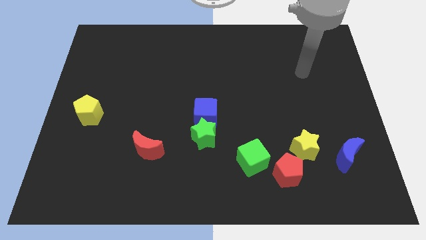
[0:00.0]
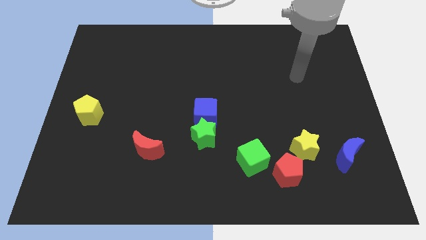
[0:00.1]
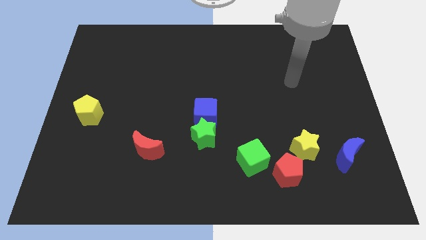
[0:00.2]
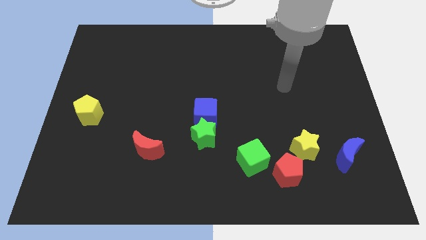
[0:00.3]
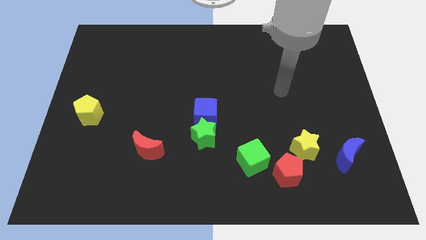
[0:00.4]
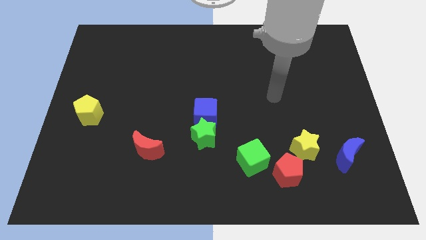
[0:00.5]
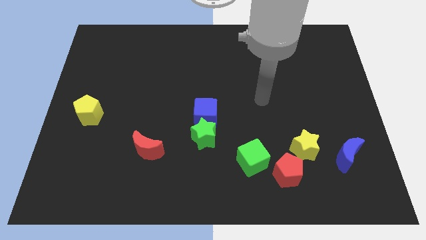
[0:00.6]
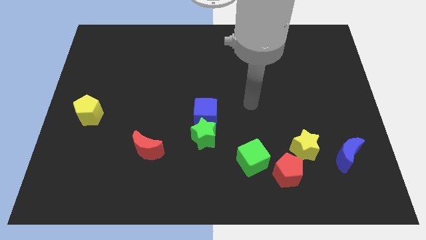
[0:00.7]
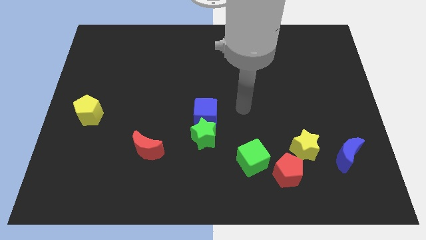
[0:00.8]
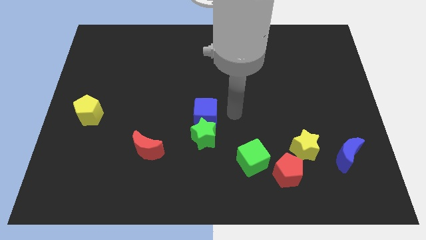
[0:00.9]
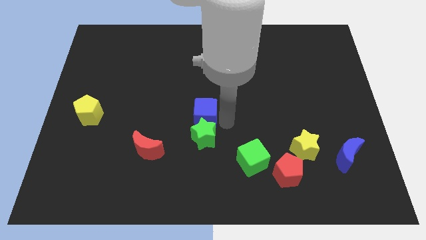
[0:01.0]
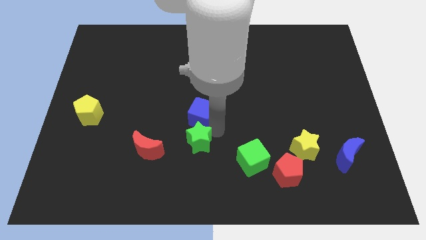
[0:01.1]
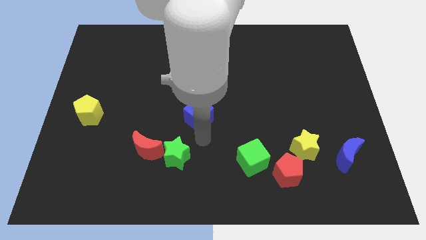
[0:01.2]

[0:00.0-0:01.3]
pull the blue cube apart from the green star

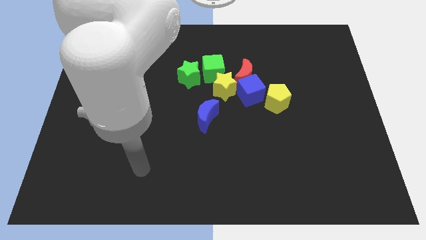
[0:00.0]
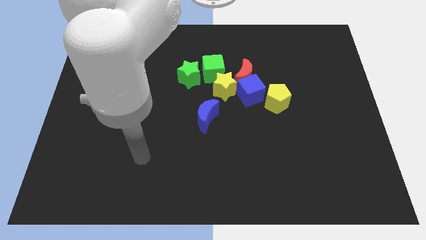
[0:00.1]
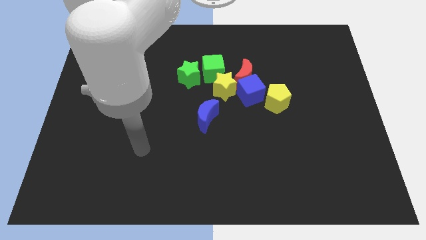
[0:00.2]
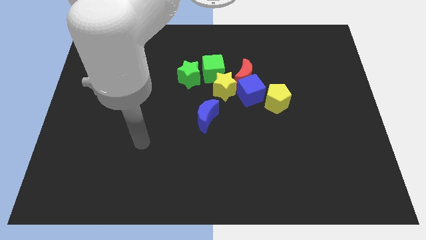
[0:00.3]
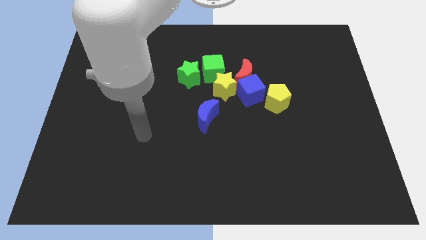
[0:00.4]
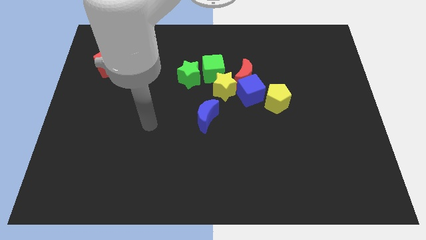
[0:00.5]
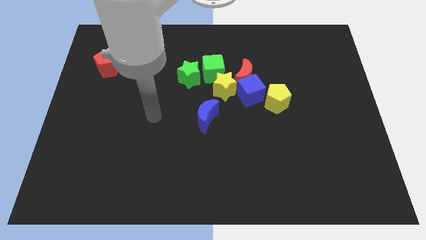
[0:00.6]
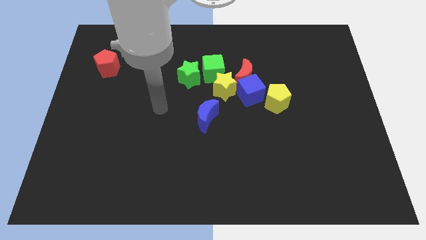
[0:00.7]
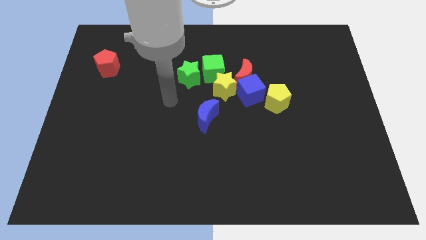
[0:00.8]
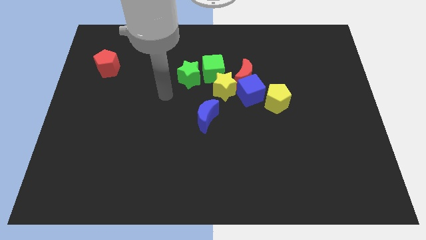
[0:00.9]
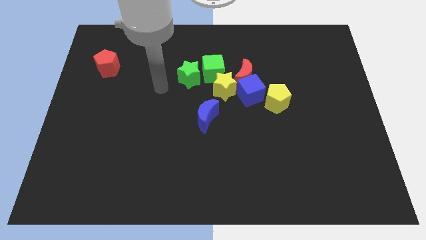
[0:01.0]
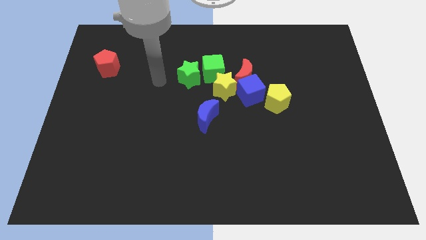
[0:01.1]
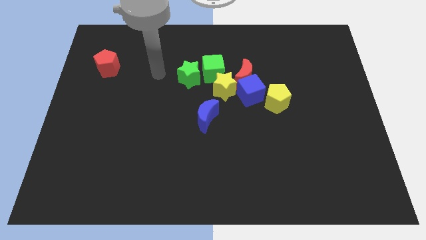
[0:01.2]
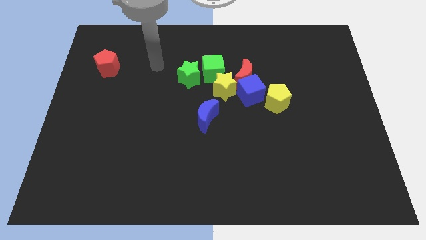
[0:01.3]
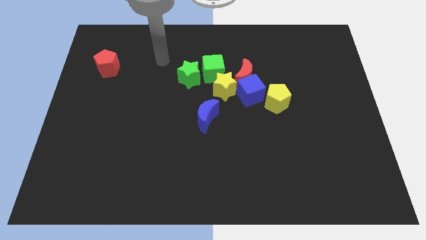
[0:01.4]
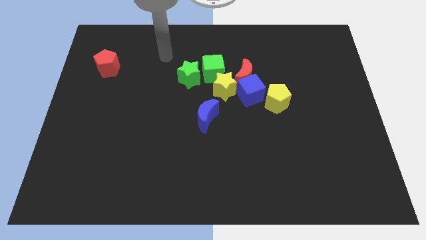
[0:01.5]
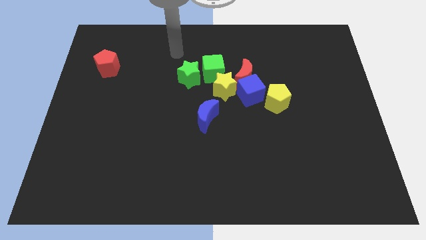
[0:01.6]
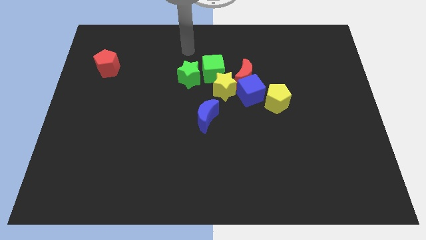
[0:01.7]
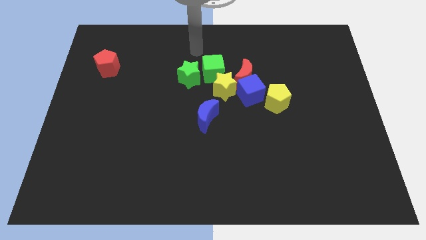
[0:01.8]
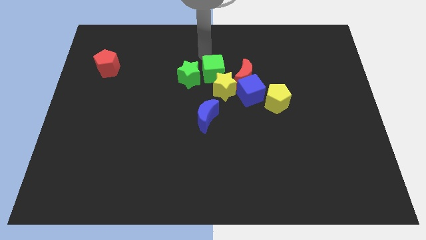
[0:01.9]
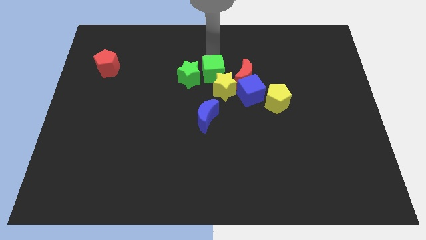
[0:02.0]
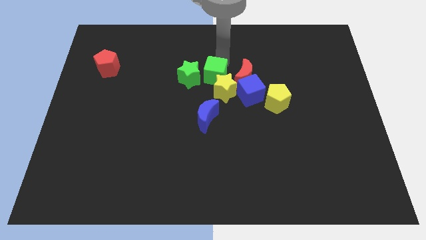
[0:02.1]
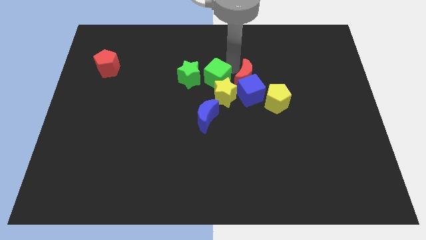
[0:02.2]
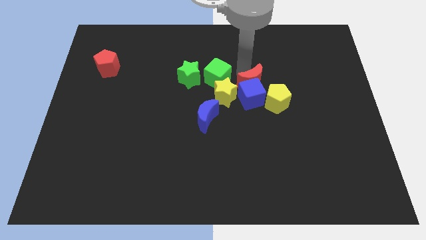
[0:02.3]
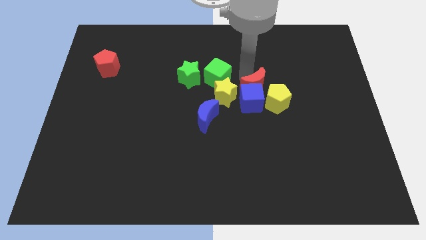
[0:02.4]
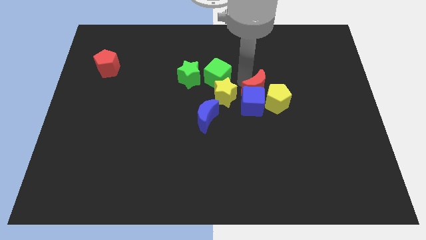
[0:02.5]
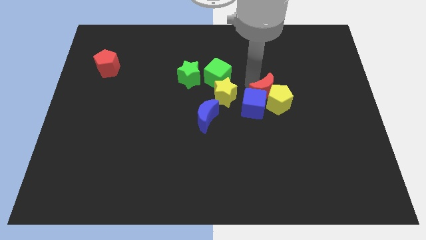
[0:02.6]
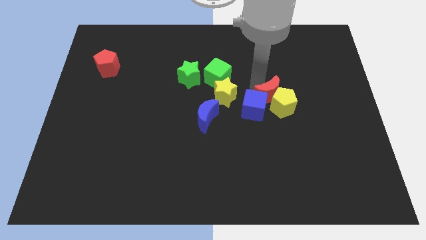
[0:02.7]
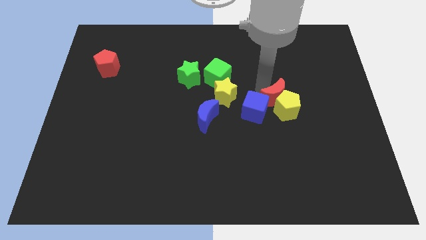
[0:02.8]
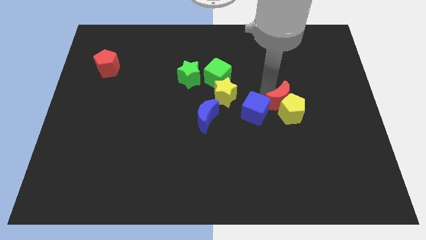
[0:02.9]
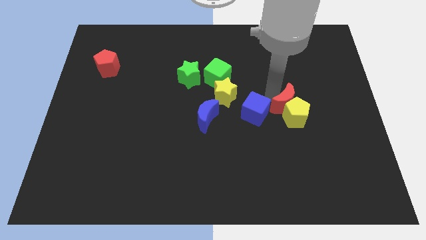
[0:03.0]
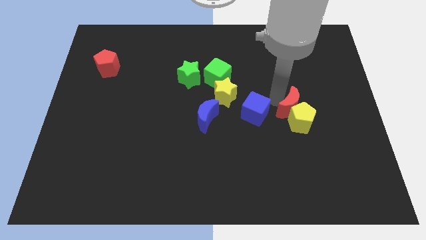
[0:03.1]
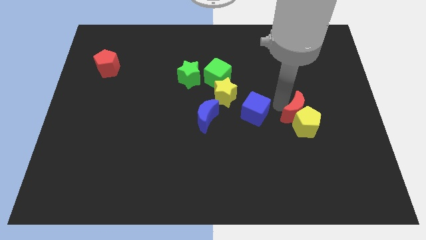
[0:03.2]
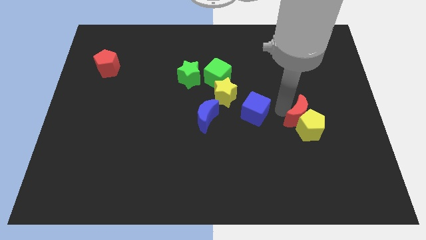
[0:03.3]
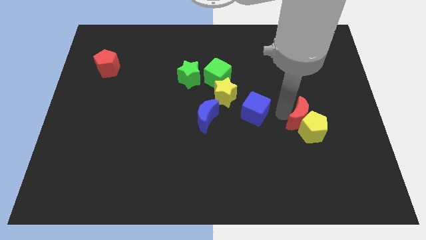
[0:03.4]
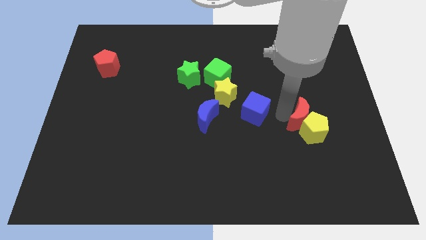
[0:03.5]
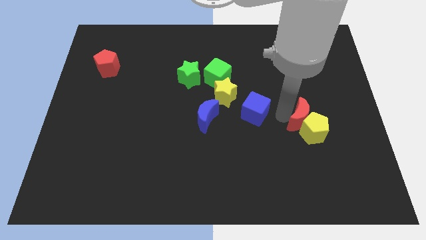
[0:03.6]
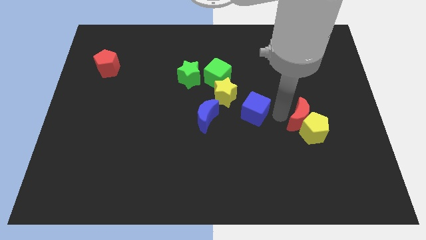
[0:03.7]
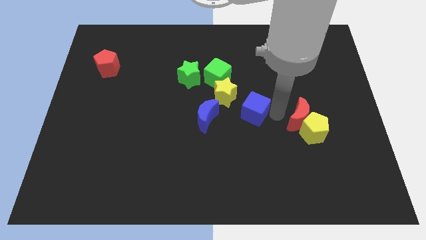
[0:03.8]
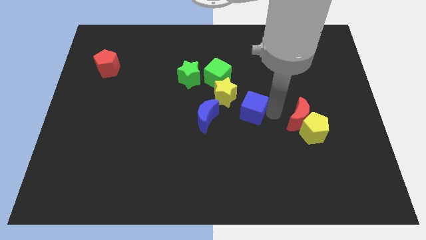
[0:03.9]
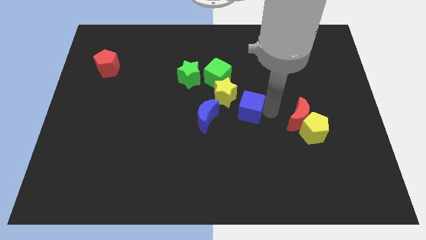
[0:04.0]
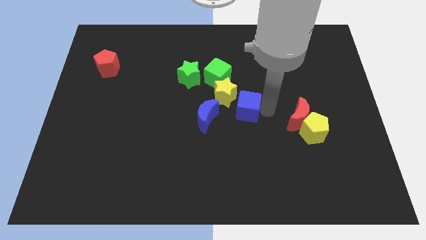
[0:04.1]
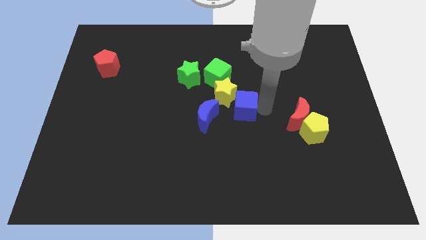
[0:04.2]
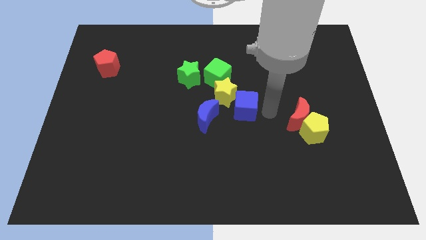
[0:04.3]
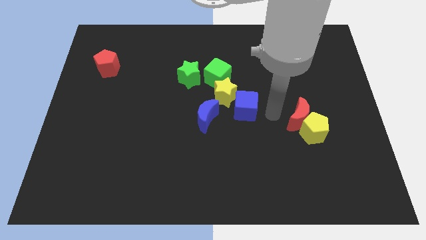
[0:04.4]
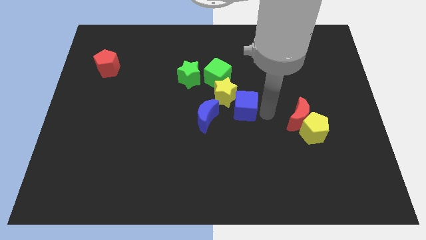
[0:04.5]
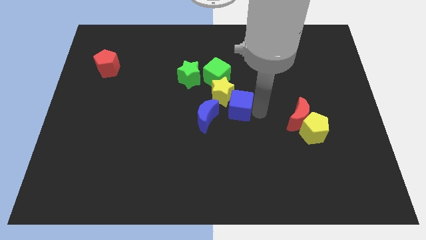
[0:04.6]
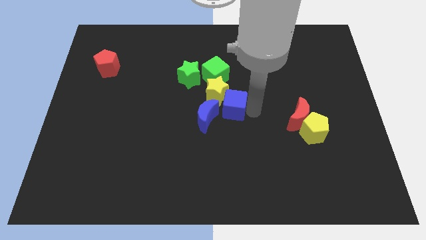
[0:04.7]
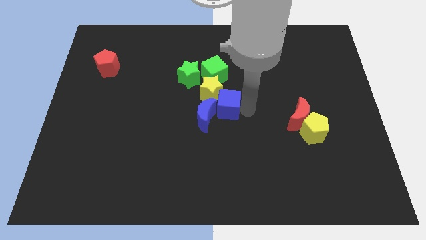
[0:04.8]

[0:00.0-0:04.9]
separate the blue cube from the red moon, yellow star, and yellow pentagon

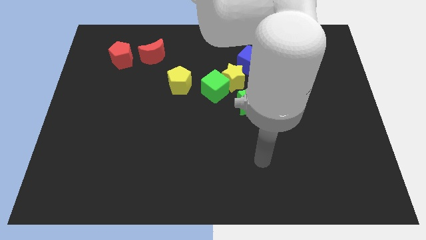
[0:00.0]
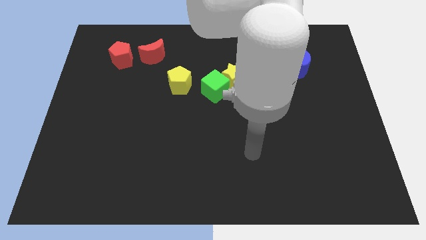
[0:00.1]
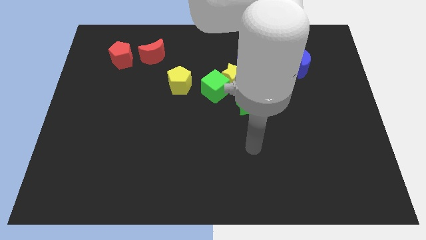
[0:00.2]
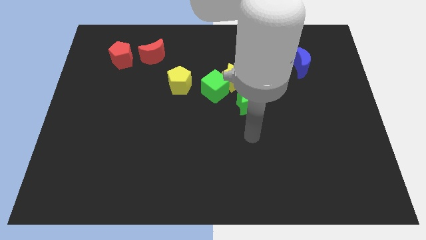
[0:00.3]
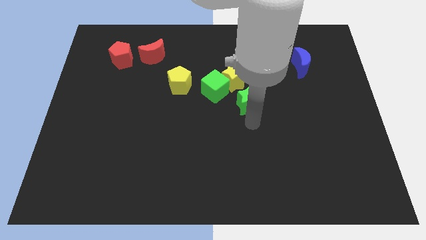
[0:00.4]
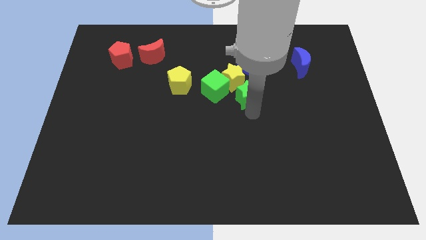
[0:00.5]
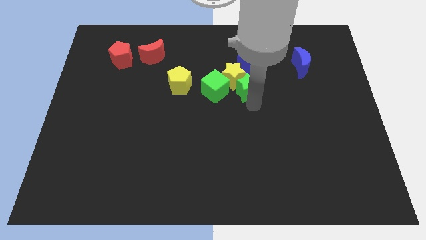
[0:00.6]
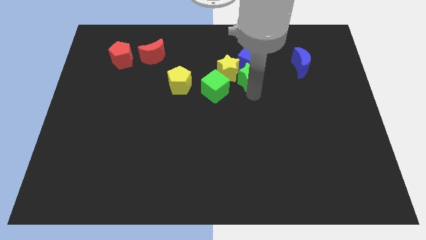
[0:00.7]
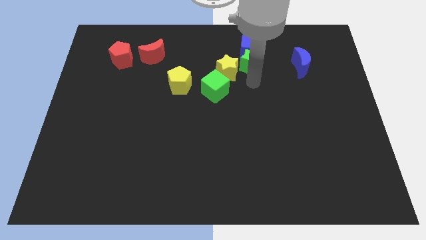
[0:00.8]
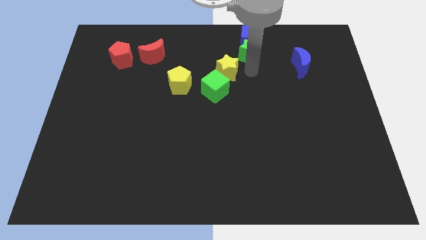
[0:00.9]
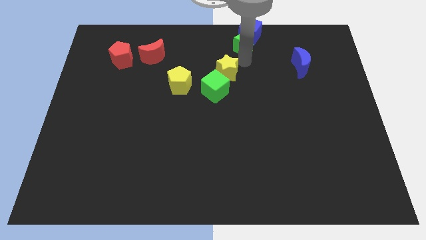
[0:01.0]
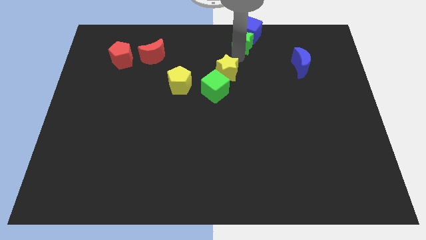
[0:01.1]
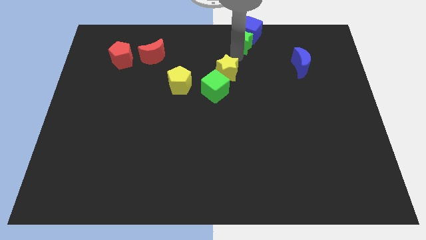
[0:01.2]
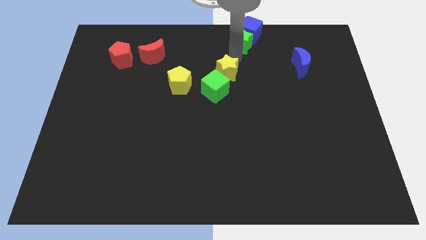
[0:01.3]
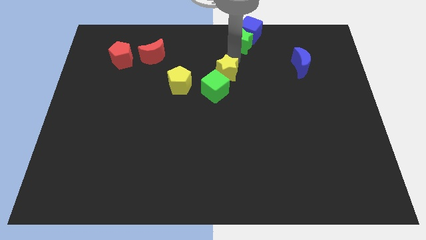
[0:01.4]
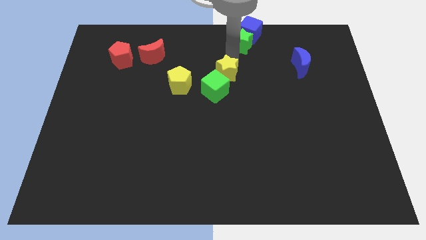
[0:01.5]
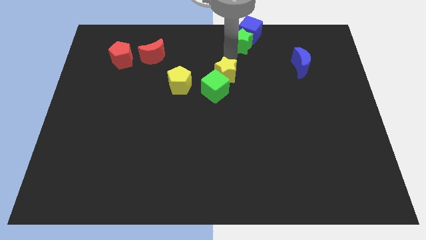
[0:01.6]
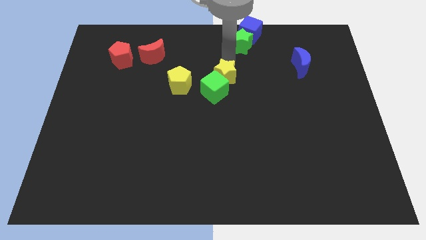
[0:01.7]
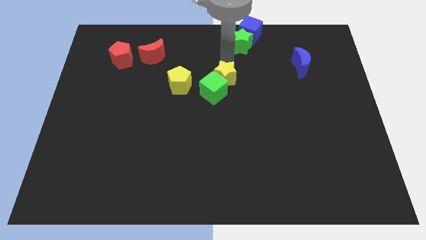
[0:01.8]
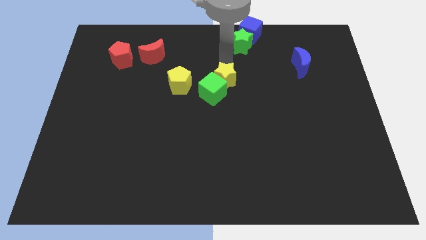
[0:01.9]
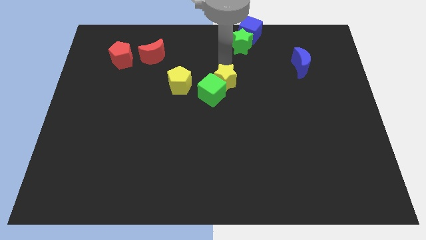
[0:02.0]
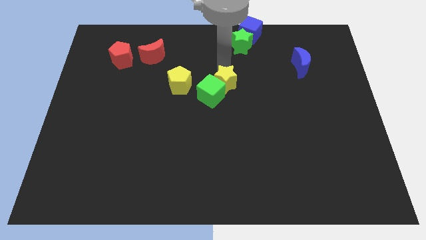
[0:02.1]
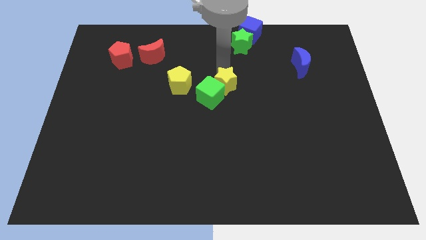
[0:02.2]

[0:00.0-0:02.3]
pull the yellow star apart from the green cube, blue cube, and green star

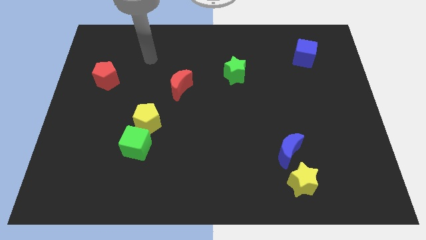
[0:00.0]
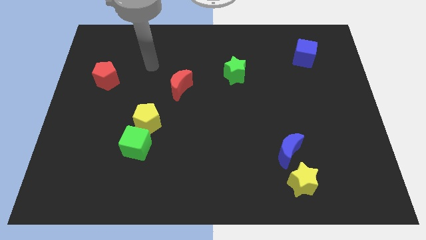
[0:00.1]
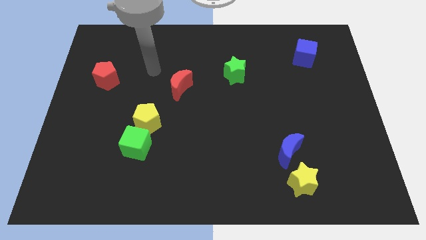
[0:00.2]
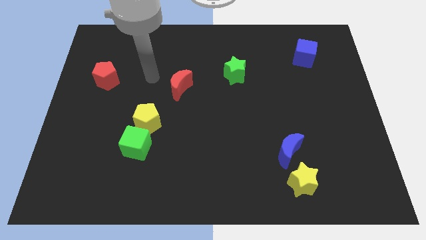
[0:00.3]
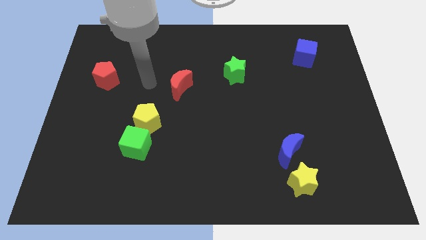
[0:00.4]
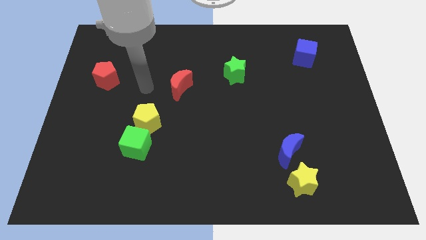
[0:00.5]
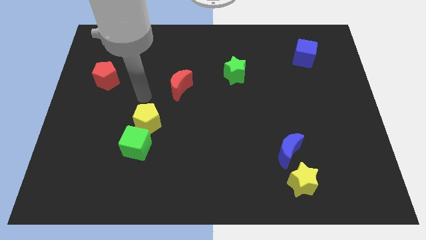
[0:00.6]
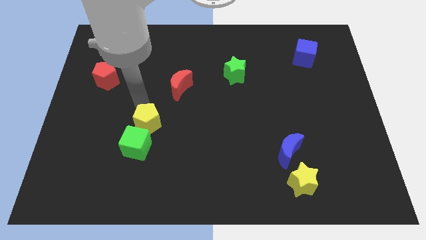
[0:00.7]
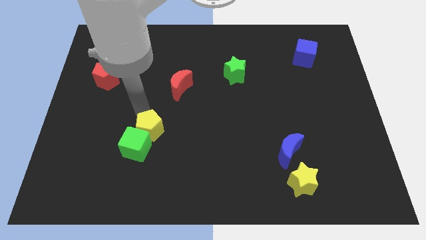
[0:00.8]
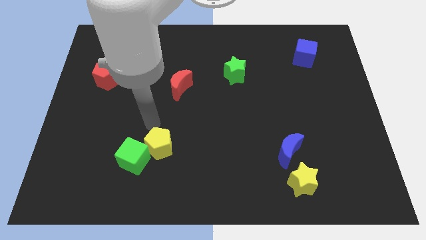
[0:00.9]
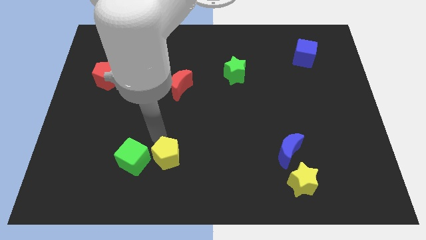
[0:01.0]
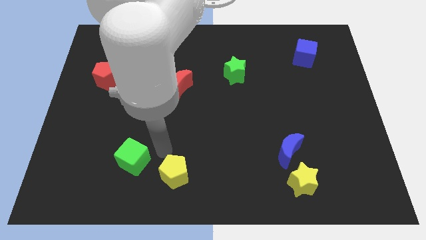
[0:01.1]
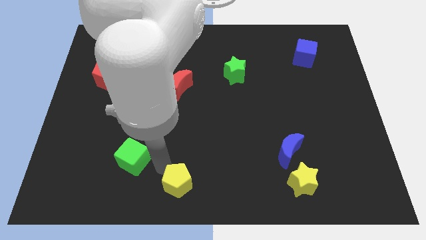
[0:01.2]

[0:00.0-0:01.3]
pull the green cube apart from the yellow pentagon
